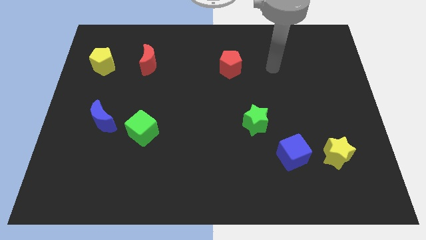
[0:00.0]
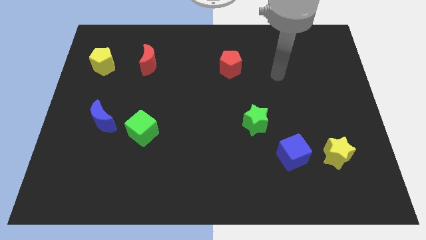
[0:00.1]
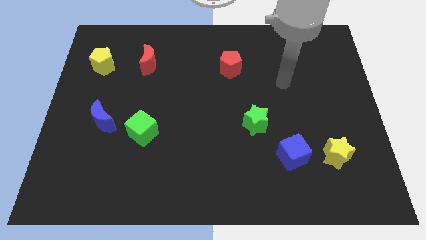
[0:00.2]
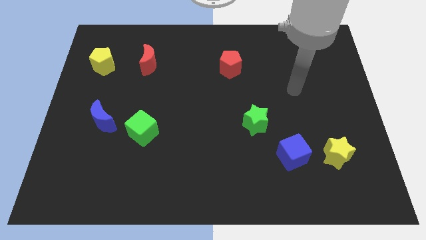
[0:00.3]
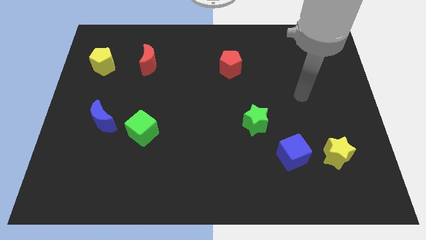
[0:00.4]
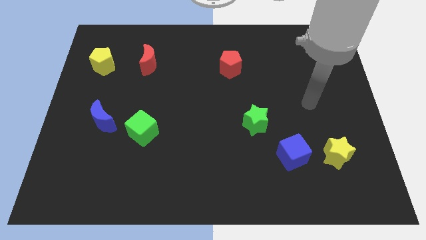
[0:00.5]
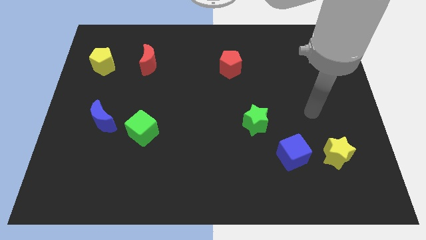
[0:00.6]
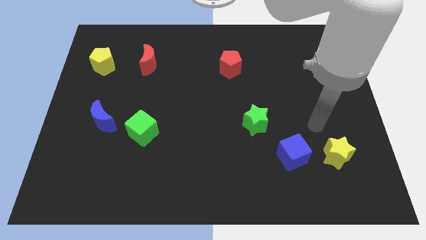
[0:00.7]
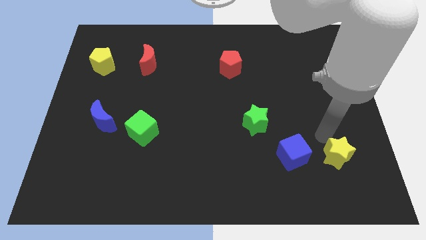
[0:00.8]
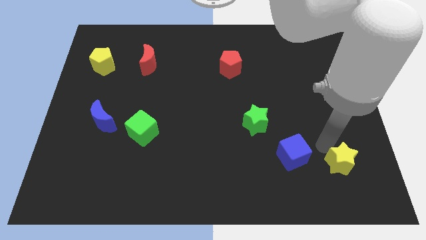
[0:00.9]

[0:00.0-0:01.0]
separate the blue cube from the yellow star

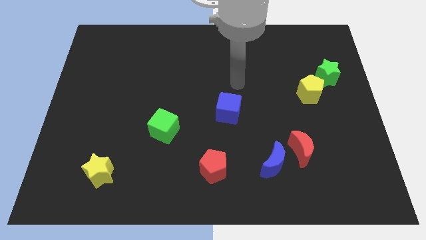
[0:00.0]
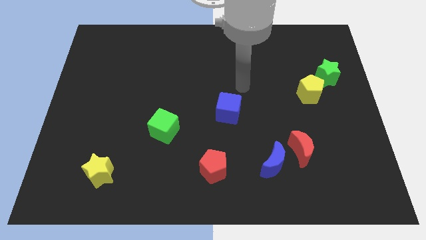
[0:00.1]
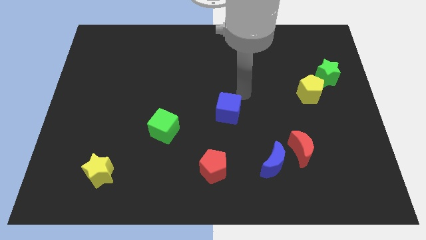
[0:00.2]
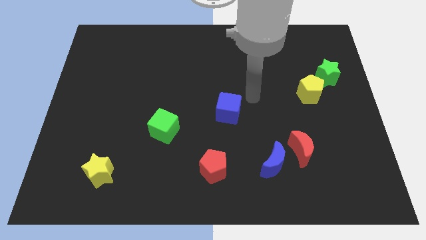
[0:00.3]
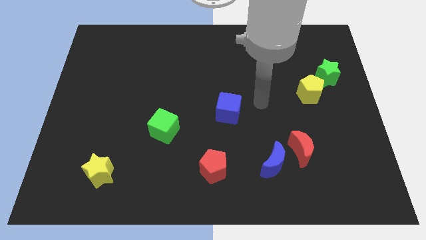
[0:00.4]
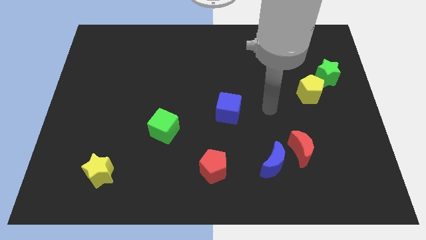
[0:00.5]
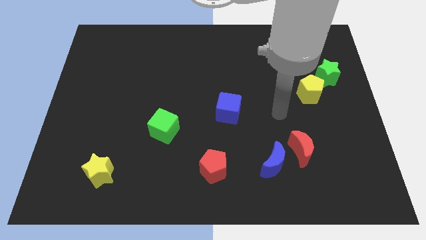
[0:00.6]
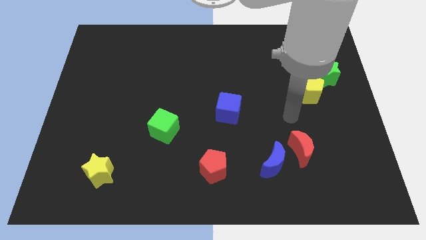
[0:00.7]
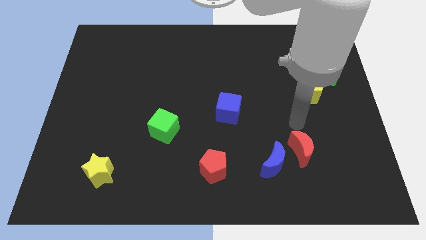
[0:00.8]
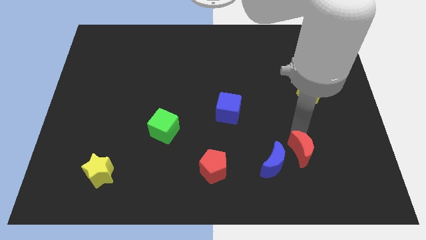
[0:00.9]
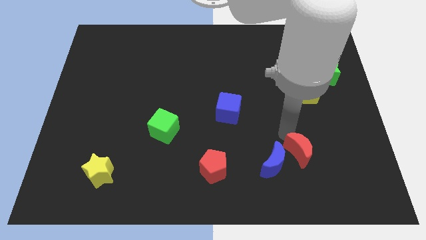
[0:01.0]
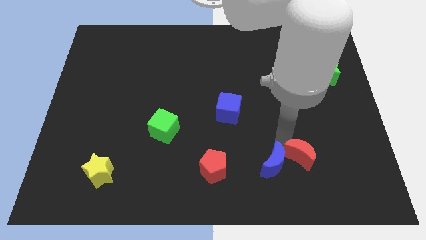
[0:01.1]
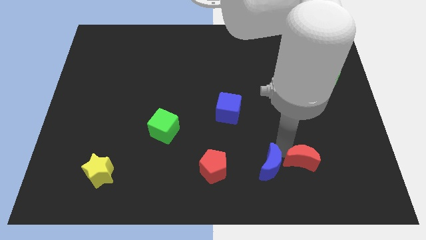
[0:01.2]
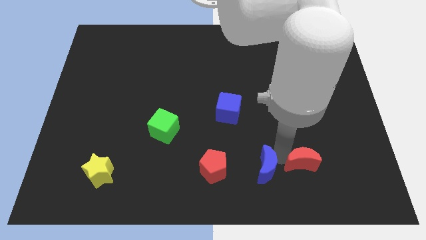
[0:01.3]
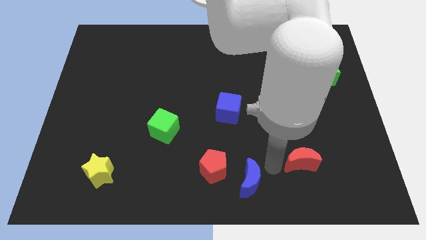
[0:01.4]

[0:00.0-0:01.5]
pull the red moon apart from the blue moon

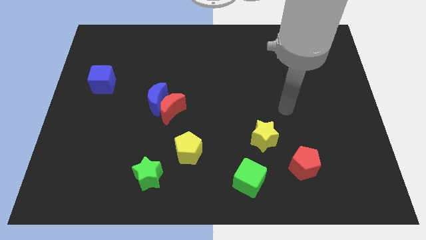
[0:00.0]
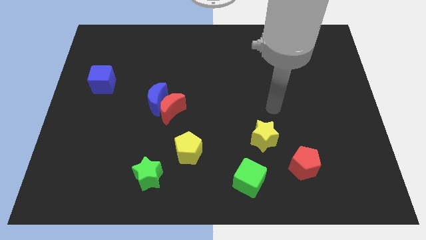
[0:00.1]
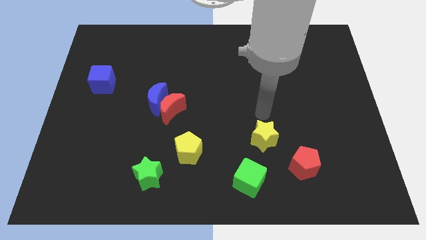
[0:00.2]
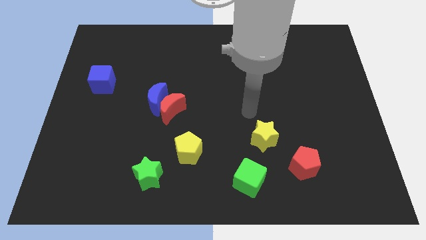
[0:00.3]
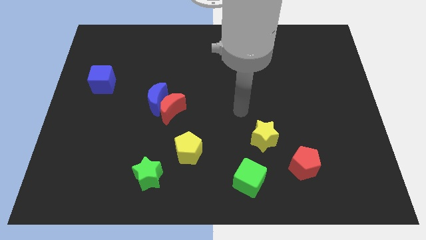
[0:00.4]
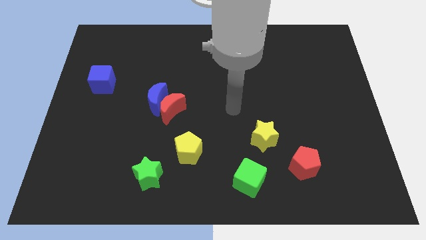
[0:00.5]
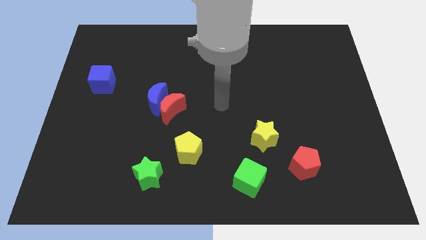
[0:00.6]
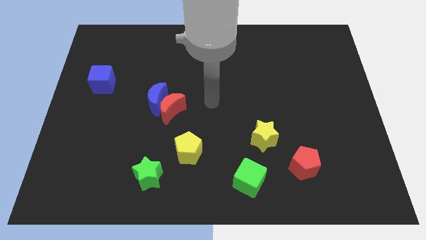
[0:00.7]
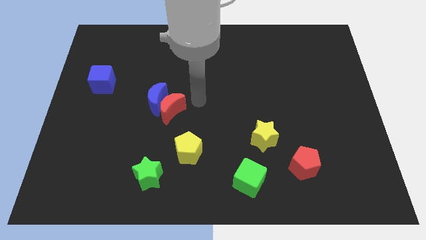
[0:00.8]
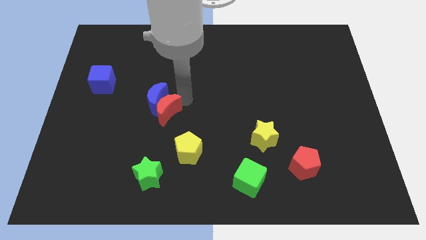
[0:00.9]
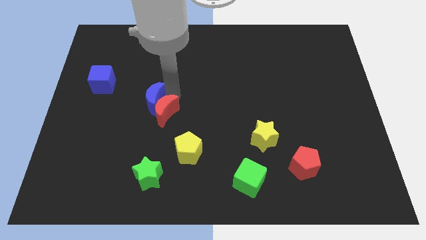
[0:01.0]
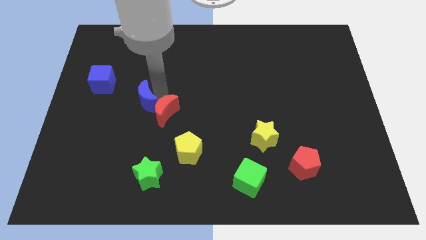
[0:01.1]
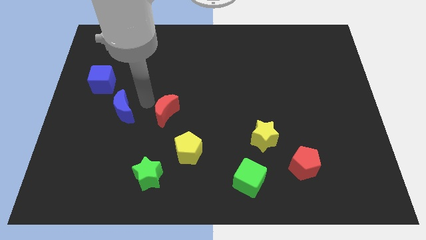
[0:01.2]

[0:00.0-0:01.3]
separate the red moon from the blue moon

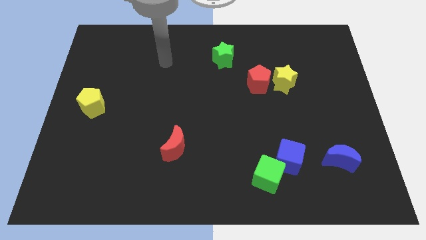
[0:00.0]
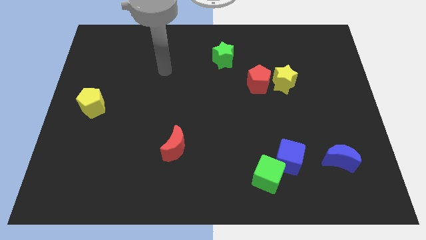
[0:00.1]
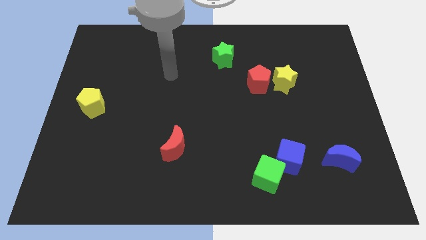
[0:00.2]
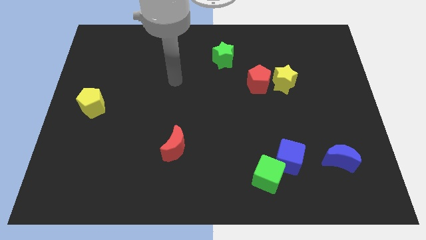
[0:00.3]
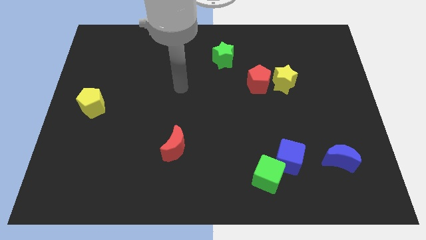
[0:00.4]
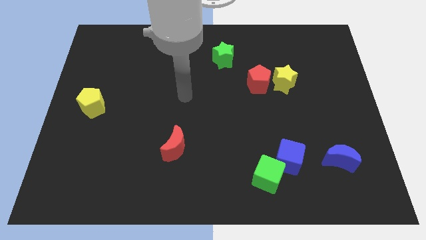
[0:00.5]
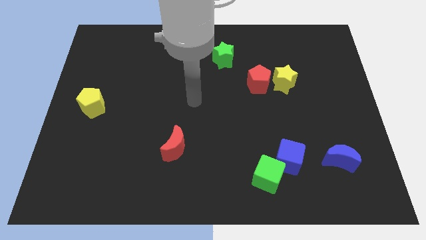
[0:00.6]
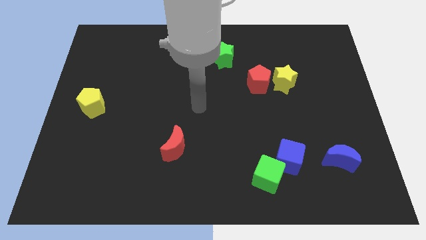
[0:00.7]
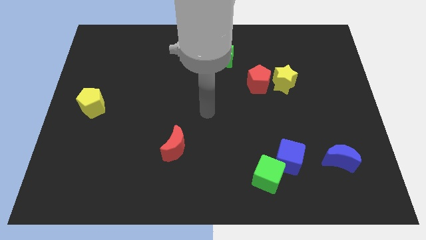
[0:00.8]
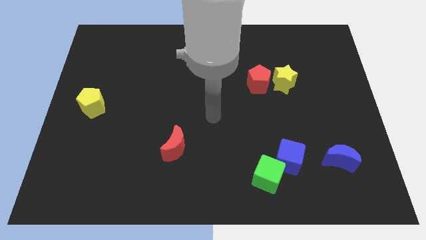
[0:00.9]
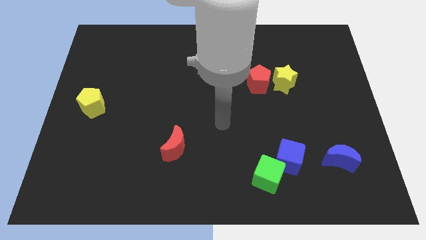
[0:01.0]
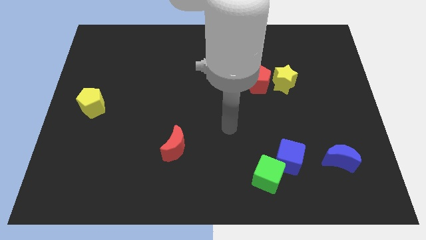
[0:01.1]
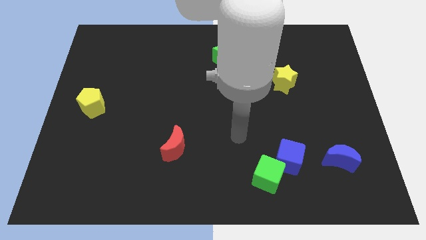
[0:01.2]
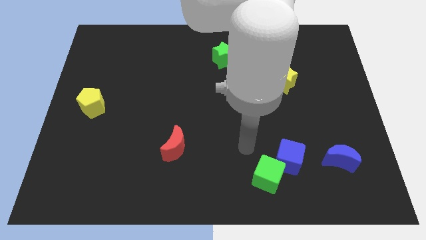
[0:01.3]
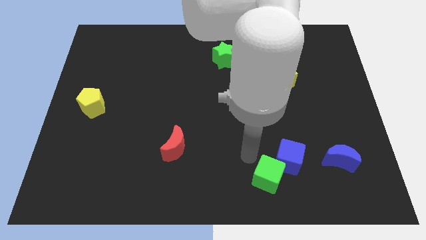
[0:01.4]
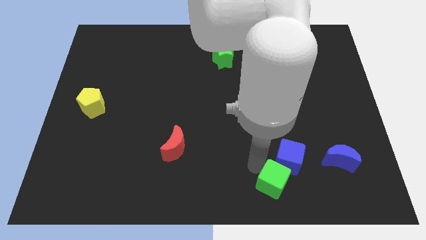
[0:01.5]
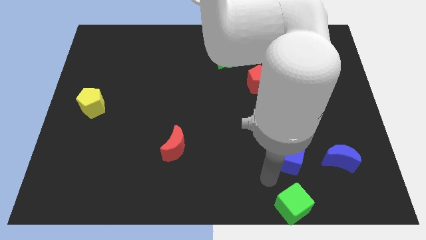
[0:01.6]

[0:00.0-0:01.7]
move the blue cube away from the green cube

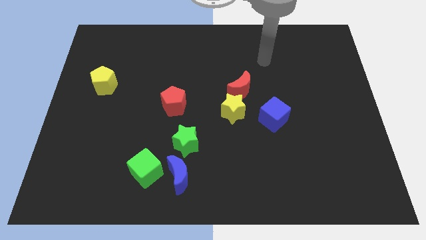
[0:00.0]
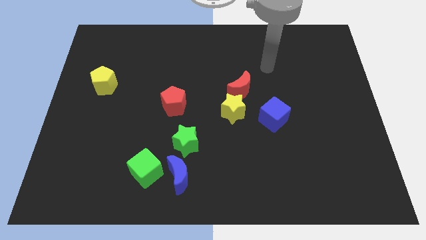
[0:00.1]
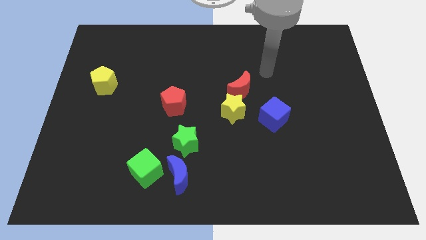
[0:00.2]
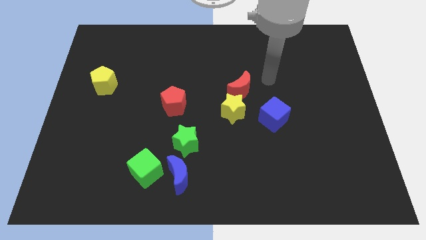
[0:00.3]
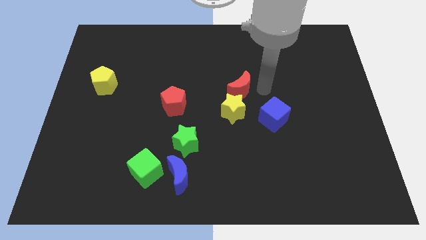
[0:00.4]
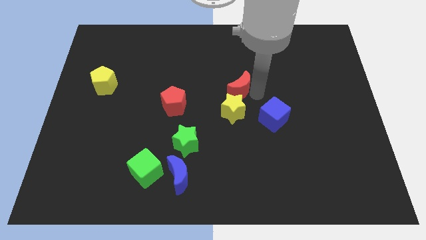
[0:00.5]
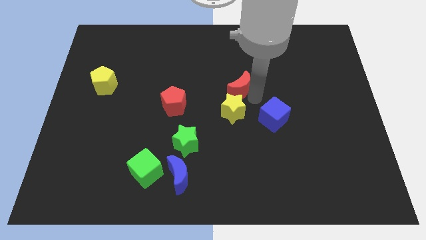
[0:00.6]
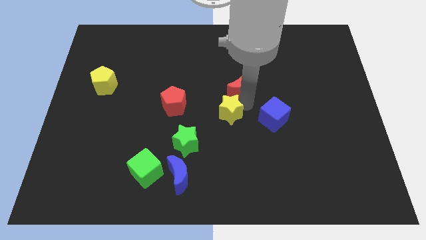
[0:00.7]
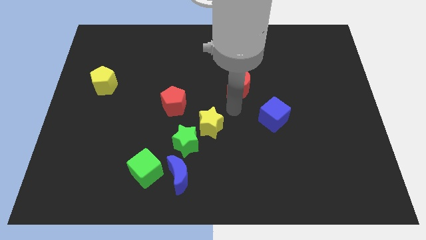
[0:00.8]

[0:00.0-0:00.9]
move the red moon away from the yellow star

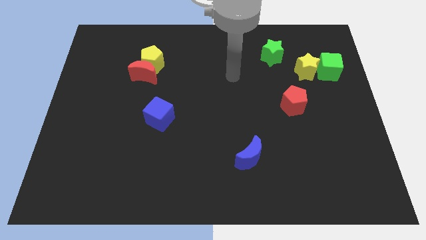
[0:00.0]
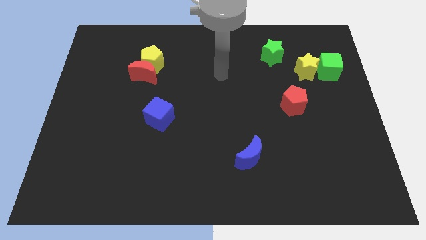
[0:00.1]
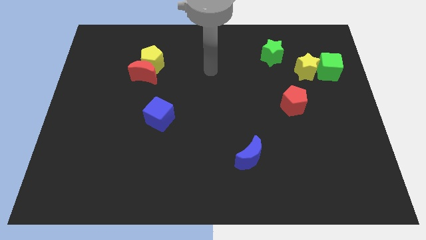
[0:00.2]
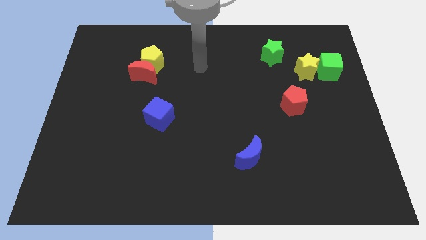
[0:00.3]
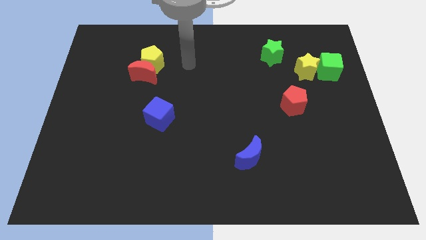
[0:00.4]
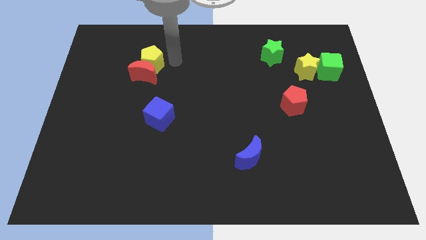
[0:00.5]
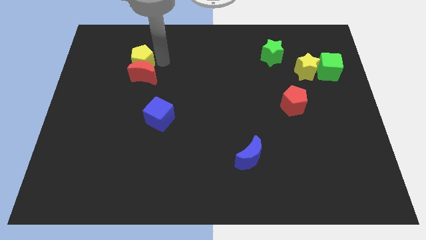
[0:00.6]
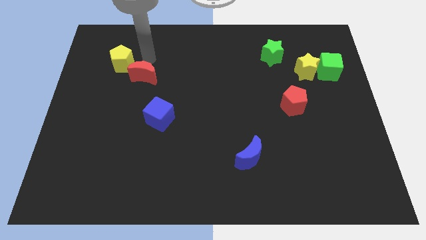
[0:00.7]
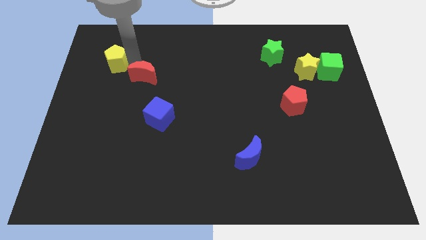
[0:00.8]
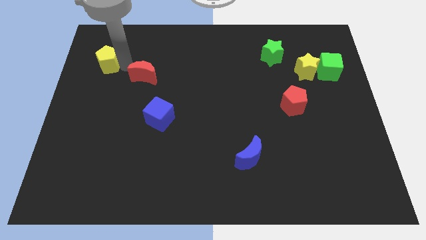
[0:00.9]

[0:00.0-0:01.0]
pull the red moon apart from the yellow pentagon

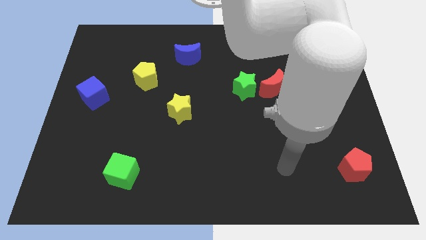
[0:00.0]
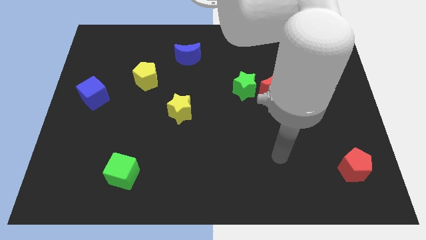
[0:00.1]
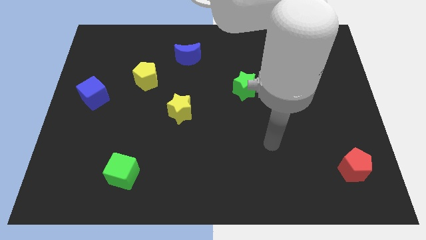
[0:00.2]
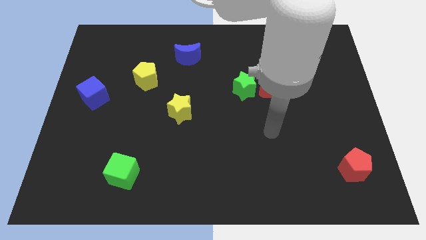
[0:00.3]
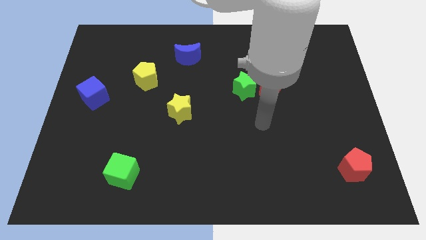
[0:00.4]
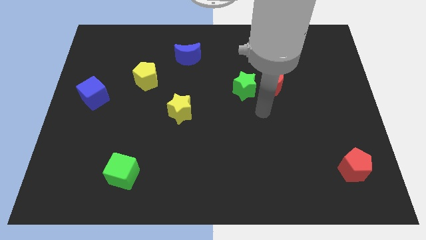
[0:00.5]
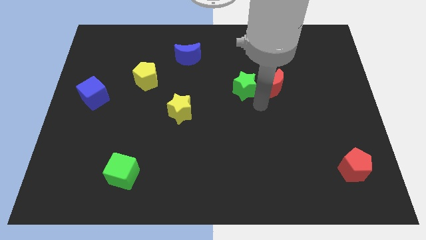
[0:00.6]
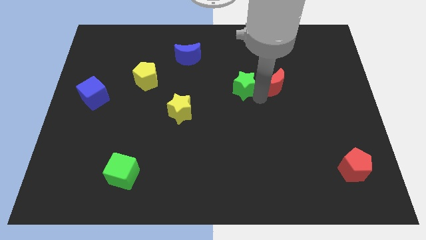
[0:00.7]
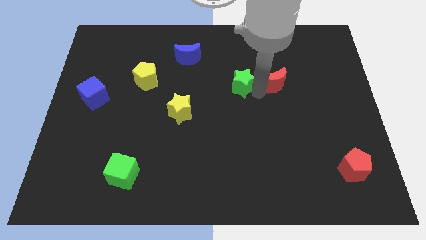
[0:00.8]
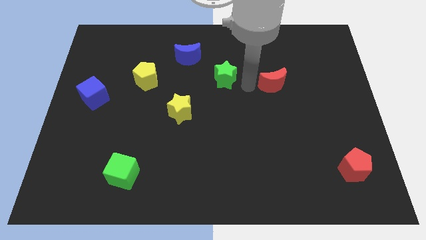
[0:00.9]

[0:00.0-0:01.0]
separate the red moon from the green star

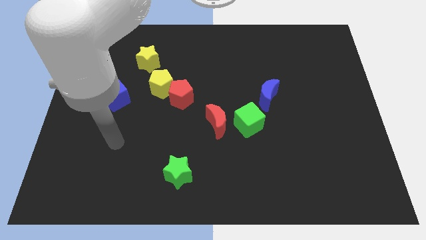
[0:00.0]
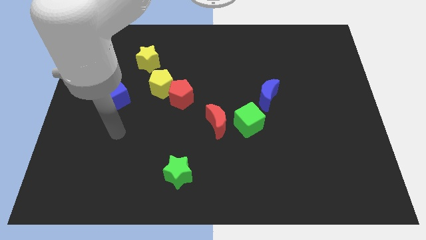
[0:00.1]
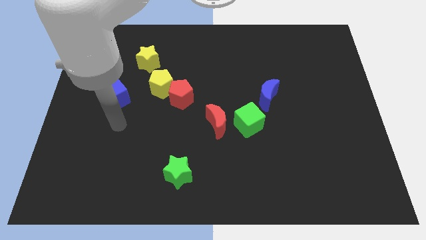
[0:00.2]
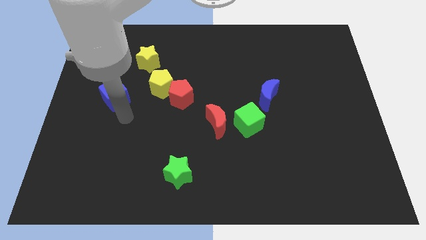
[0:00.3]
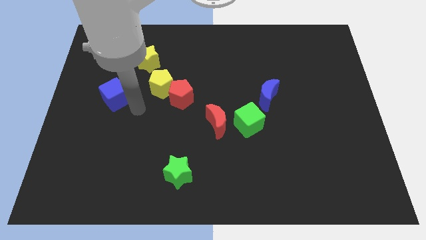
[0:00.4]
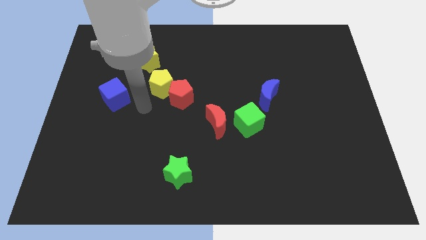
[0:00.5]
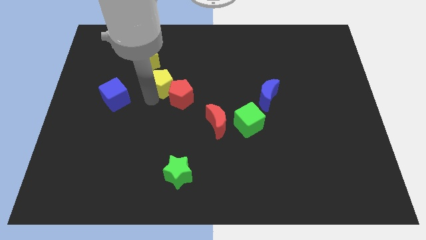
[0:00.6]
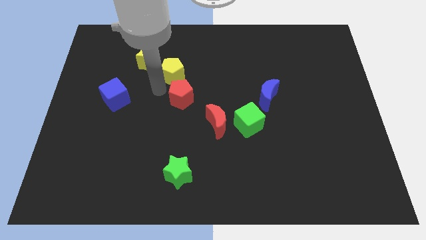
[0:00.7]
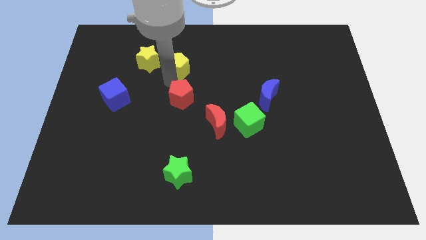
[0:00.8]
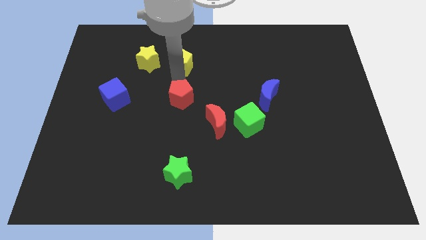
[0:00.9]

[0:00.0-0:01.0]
pull the red pentagon apart from the yellow pentagon
